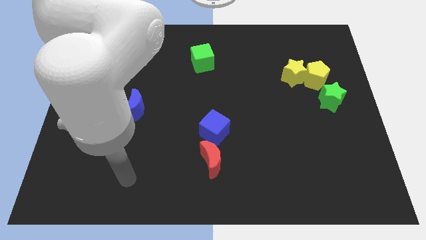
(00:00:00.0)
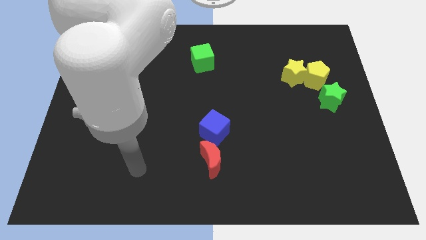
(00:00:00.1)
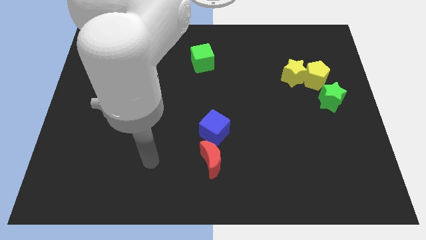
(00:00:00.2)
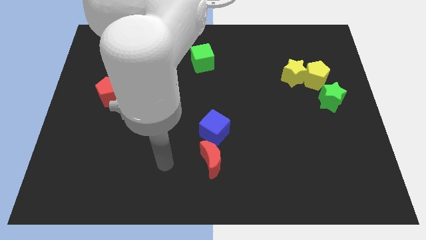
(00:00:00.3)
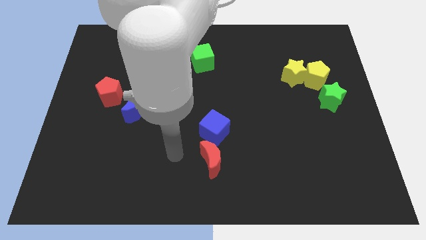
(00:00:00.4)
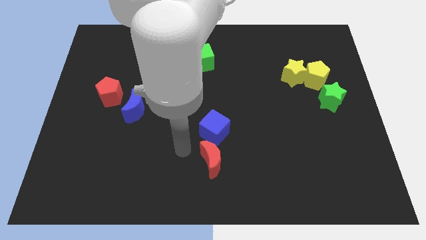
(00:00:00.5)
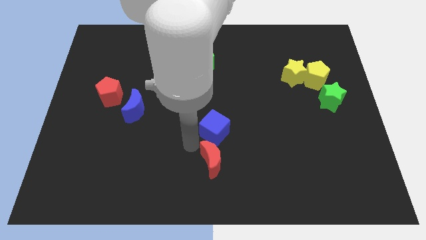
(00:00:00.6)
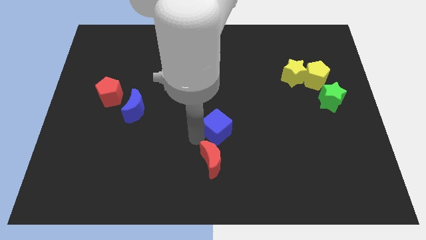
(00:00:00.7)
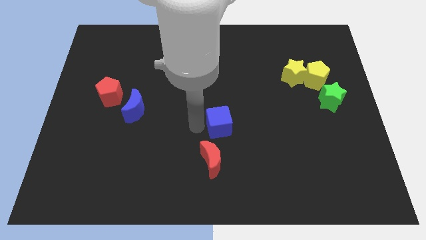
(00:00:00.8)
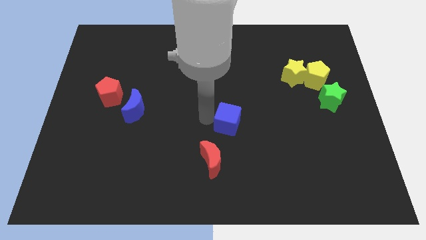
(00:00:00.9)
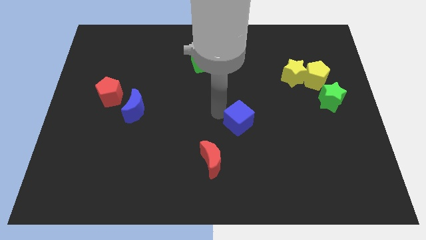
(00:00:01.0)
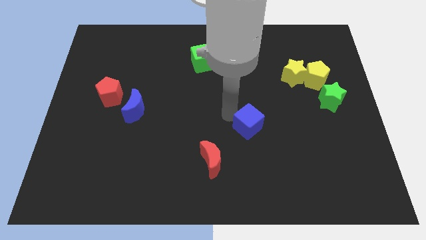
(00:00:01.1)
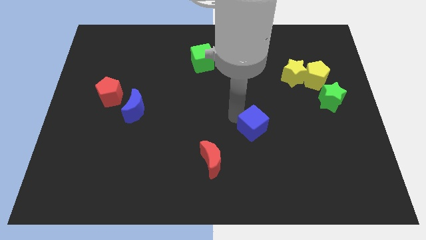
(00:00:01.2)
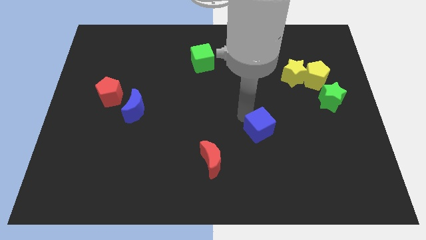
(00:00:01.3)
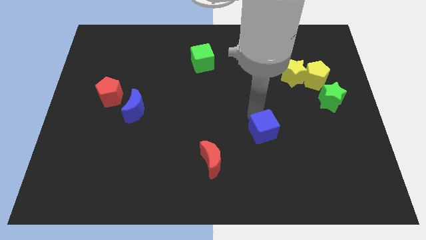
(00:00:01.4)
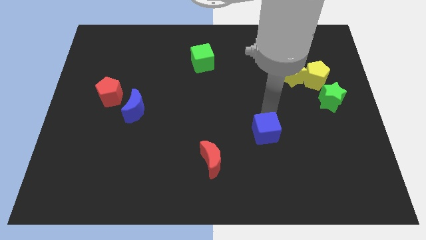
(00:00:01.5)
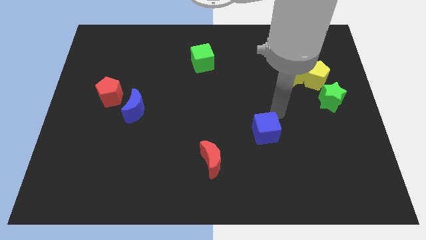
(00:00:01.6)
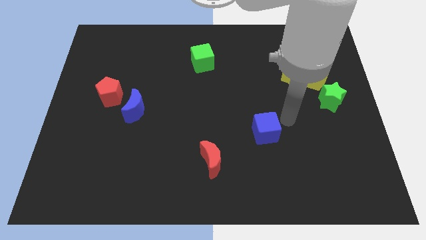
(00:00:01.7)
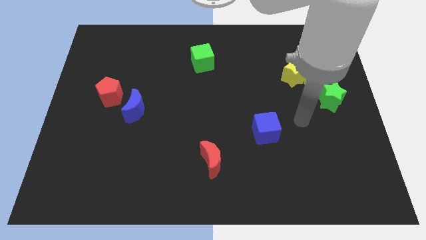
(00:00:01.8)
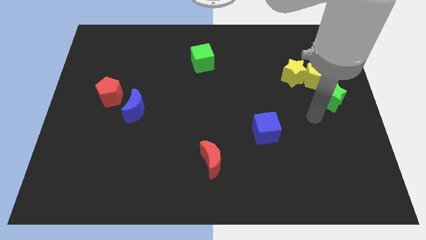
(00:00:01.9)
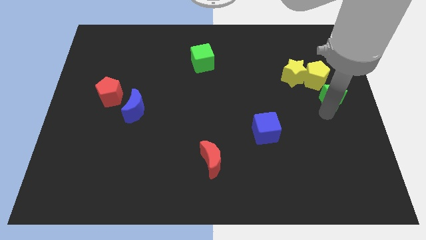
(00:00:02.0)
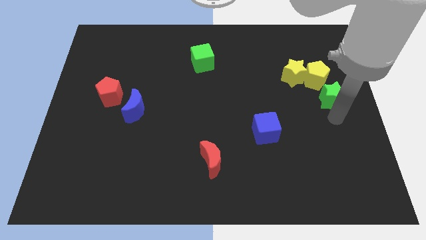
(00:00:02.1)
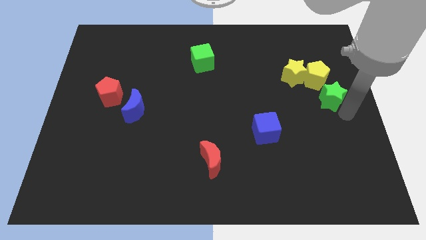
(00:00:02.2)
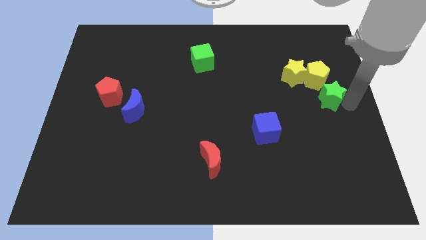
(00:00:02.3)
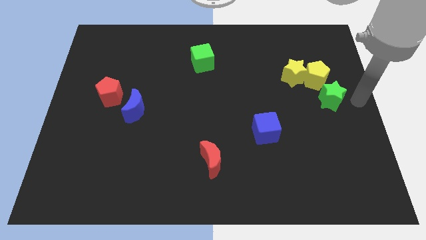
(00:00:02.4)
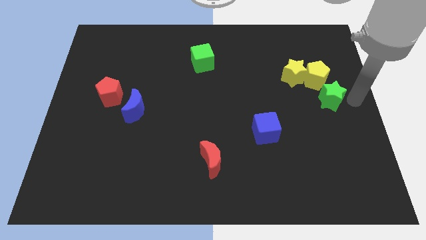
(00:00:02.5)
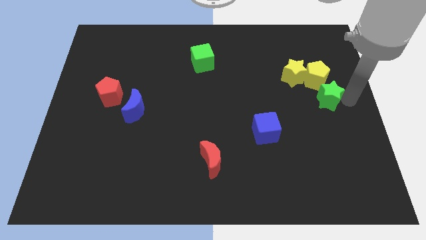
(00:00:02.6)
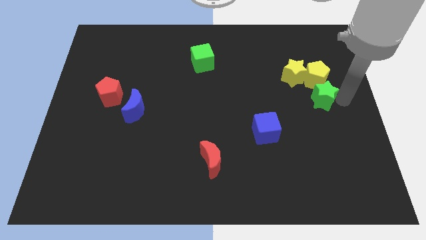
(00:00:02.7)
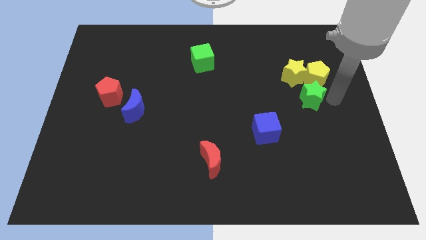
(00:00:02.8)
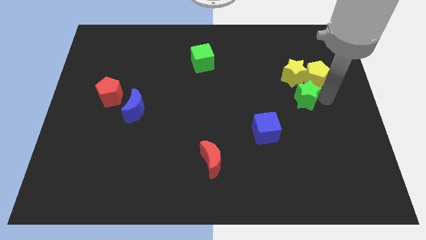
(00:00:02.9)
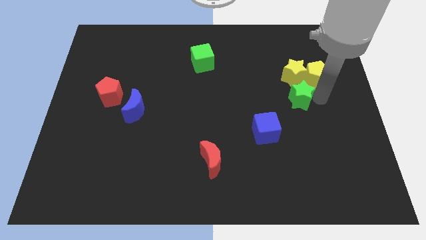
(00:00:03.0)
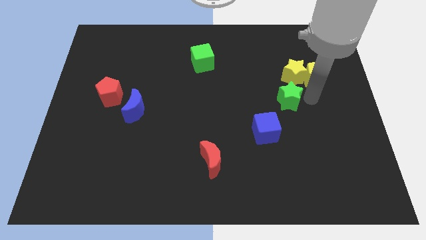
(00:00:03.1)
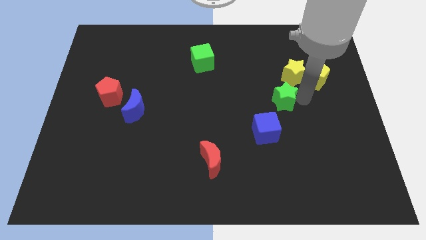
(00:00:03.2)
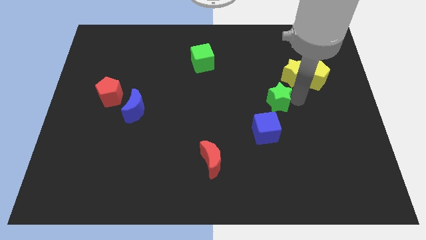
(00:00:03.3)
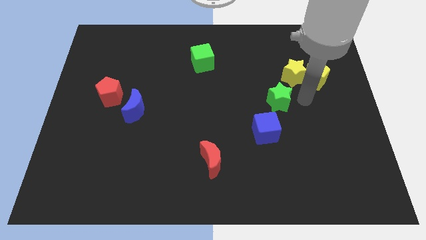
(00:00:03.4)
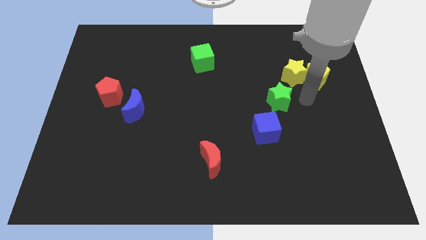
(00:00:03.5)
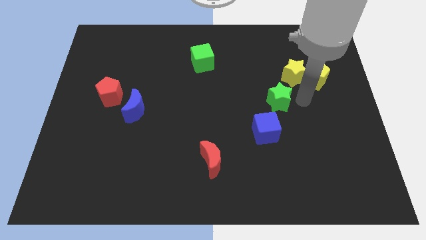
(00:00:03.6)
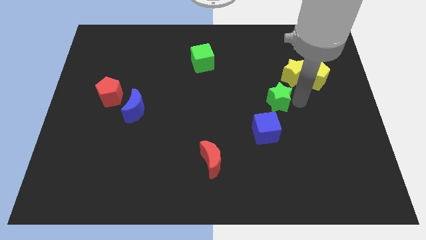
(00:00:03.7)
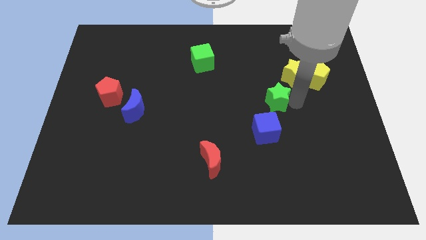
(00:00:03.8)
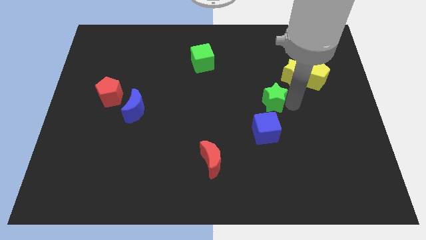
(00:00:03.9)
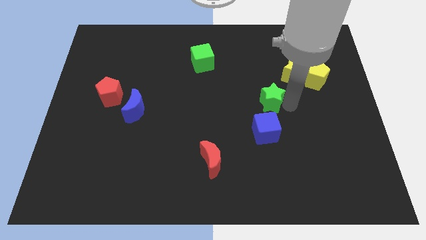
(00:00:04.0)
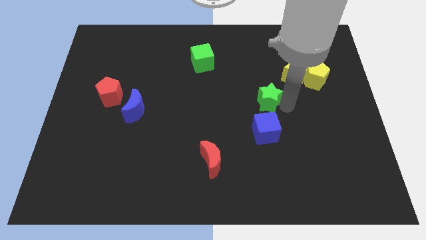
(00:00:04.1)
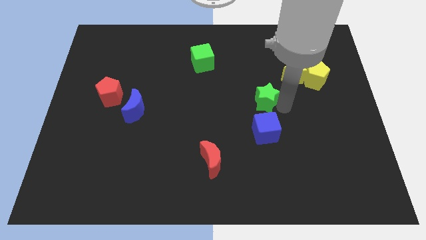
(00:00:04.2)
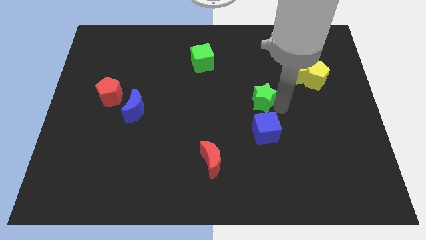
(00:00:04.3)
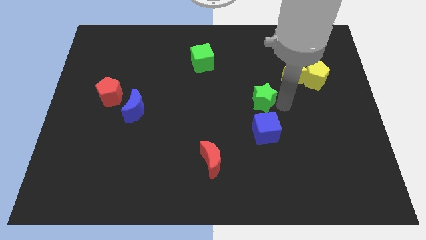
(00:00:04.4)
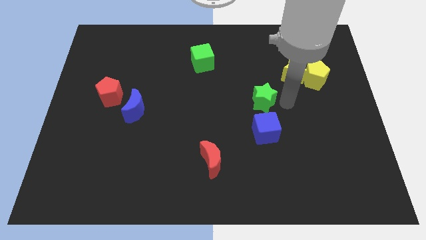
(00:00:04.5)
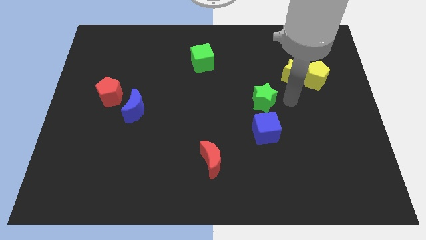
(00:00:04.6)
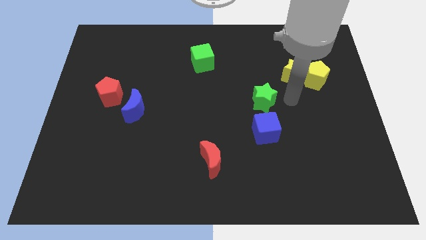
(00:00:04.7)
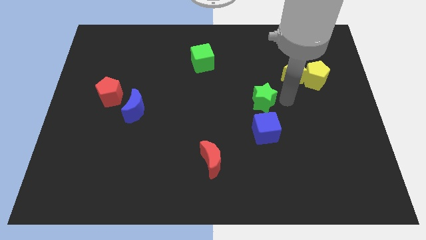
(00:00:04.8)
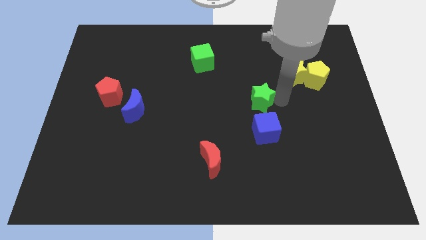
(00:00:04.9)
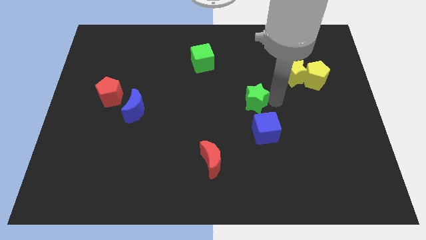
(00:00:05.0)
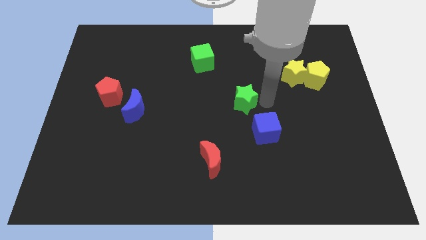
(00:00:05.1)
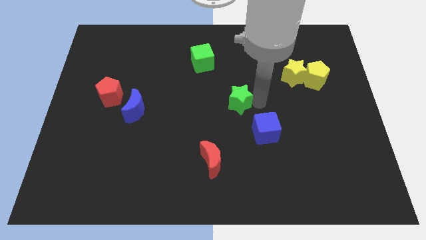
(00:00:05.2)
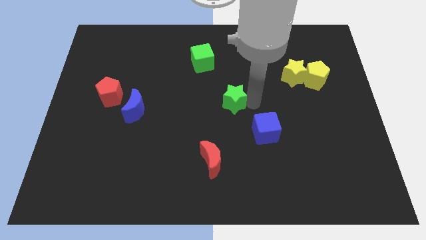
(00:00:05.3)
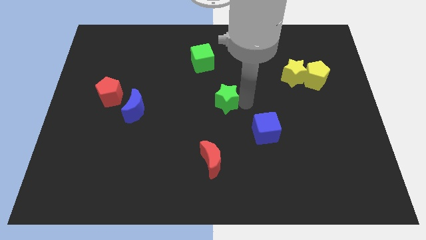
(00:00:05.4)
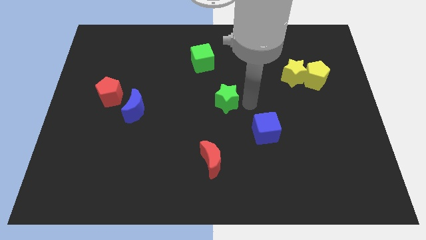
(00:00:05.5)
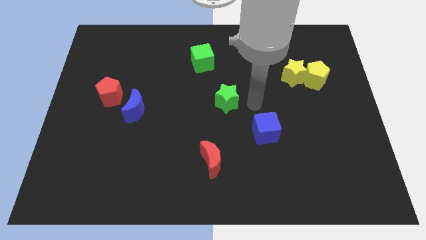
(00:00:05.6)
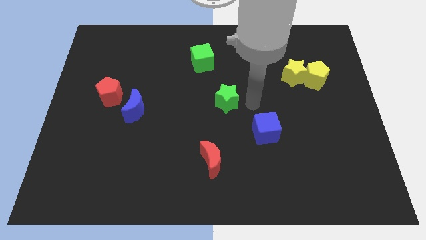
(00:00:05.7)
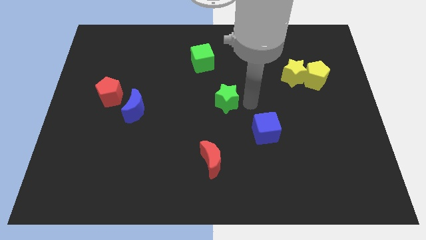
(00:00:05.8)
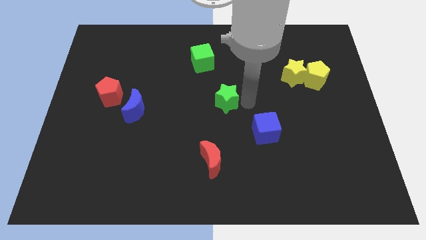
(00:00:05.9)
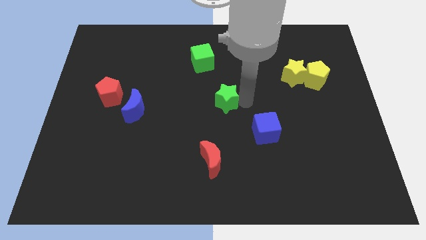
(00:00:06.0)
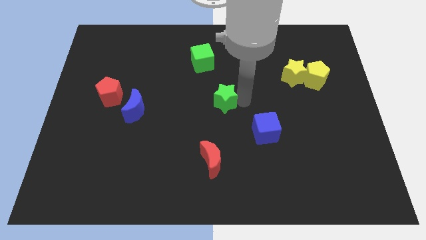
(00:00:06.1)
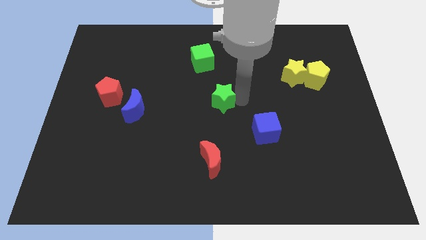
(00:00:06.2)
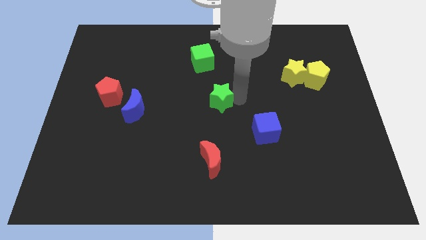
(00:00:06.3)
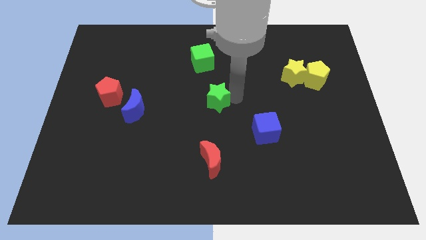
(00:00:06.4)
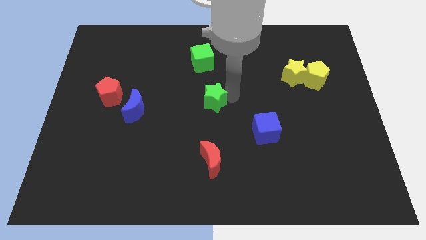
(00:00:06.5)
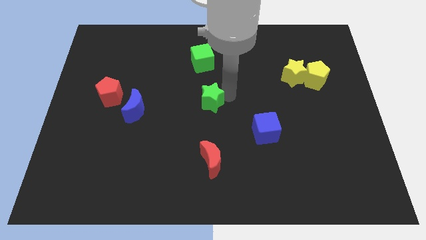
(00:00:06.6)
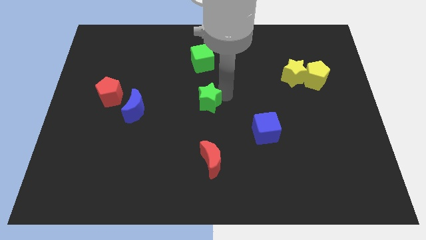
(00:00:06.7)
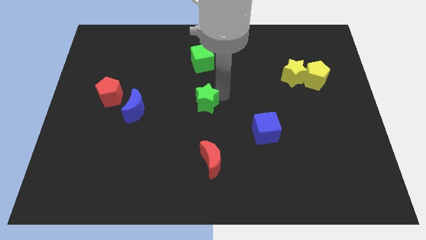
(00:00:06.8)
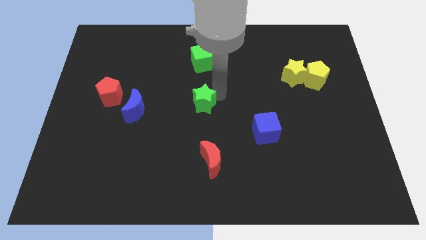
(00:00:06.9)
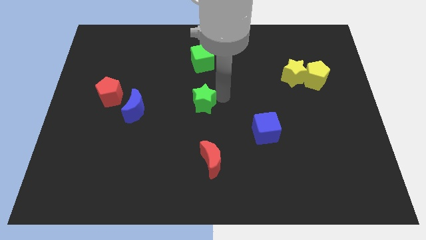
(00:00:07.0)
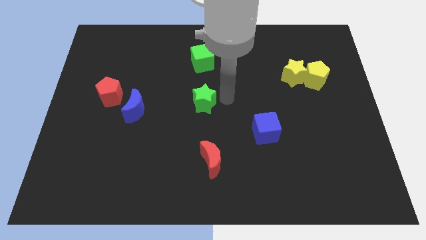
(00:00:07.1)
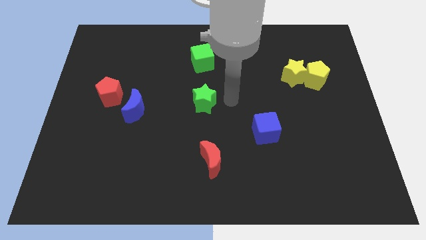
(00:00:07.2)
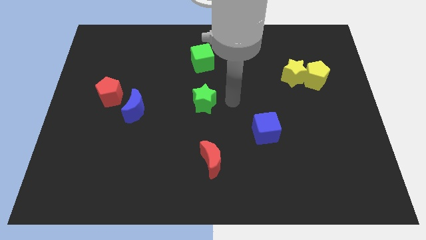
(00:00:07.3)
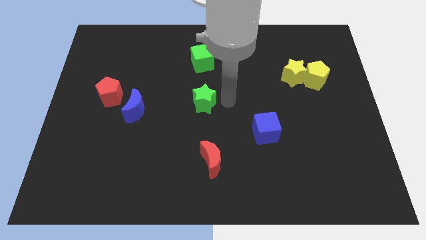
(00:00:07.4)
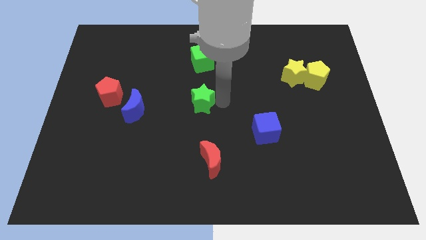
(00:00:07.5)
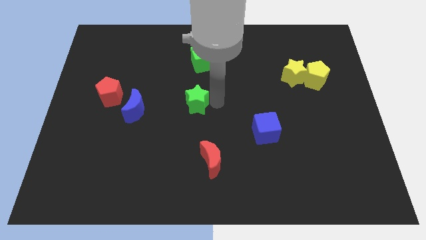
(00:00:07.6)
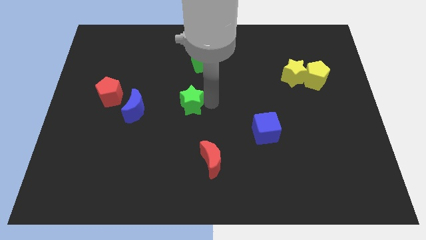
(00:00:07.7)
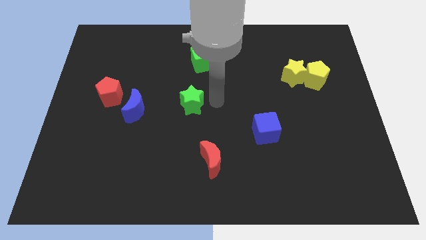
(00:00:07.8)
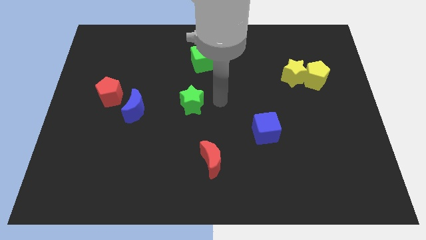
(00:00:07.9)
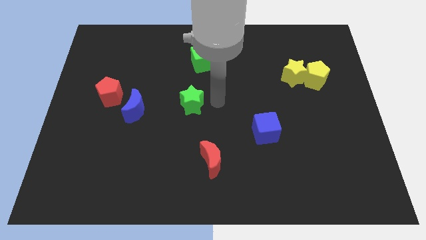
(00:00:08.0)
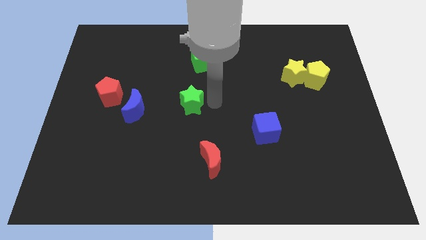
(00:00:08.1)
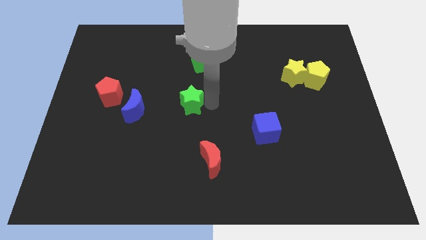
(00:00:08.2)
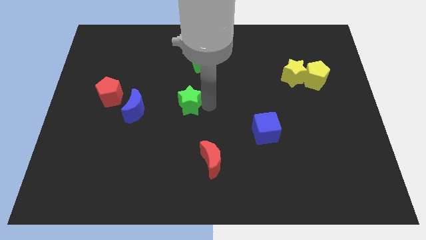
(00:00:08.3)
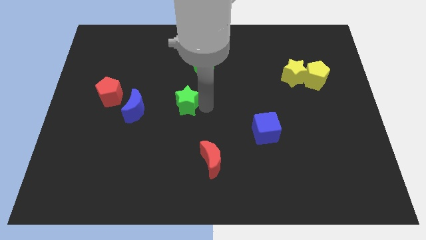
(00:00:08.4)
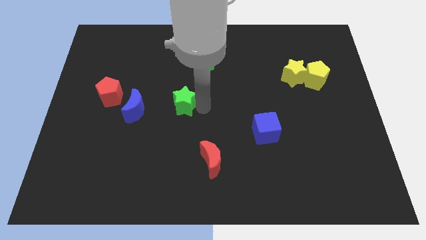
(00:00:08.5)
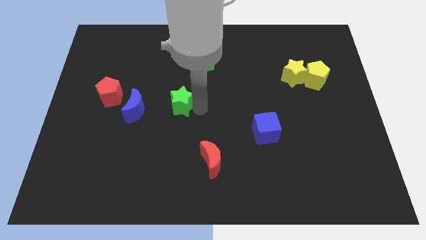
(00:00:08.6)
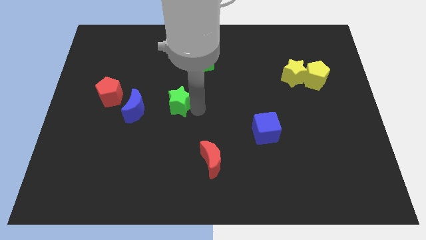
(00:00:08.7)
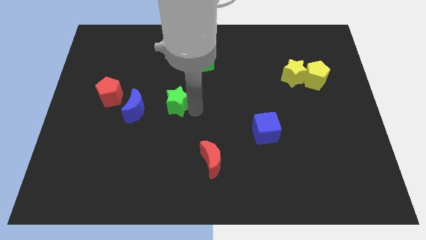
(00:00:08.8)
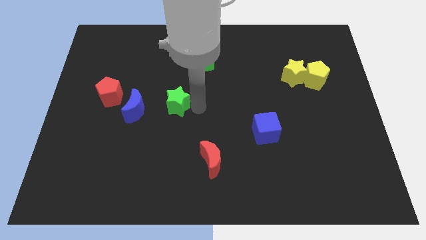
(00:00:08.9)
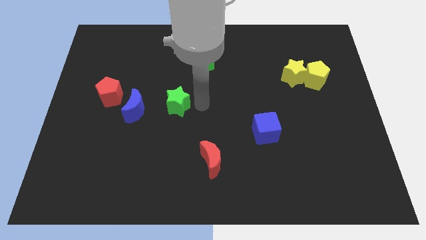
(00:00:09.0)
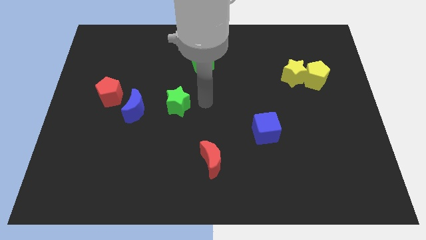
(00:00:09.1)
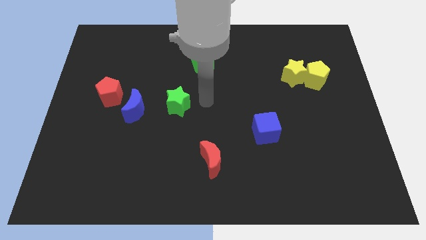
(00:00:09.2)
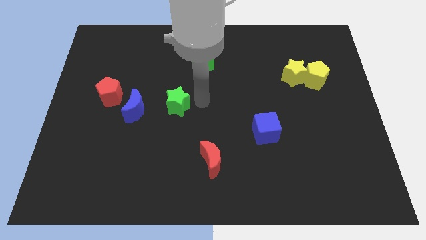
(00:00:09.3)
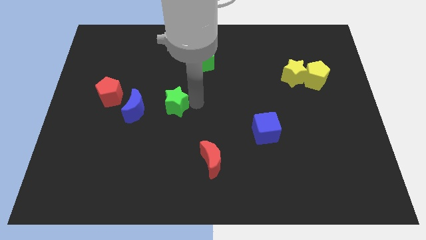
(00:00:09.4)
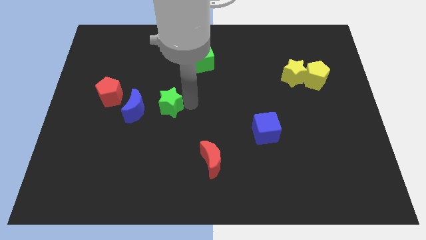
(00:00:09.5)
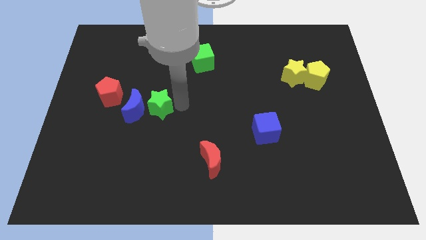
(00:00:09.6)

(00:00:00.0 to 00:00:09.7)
push the green star towards the blue moon
